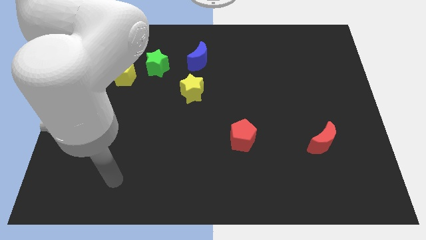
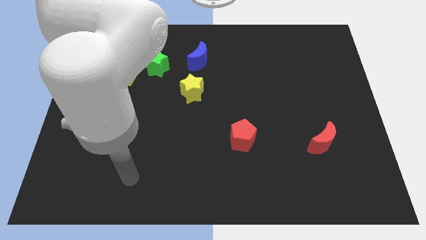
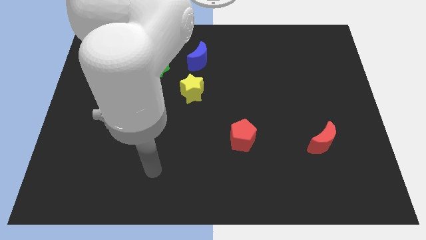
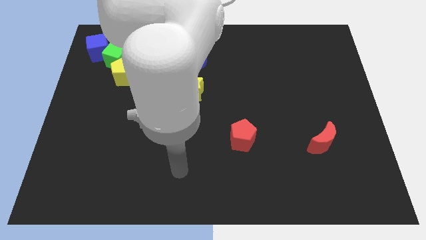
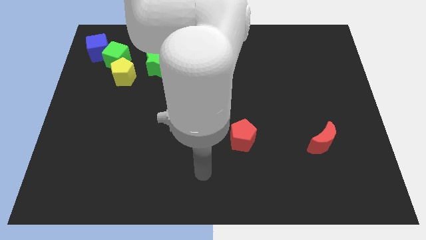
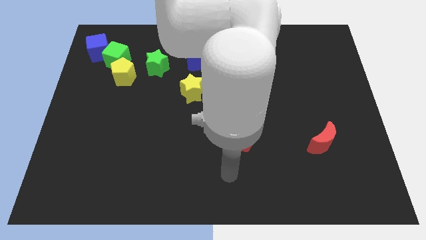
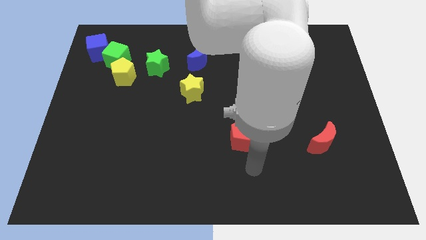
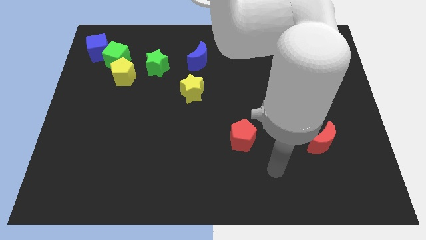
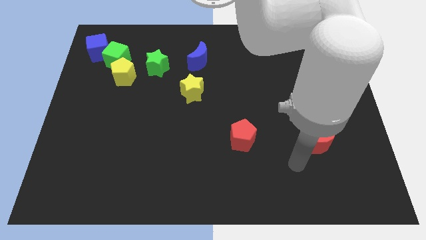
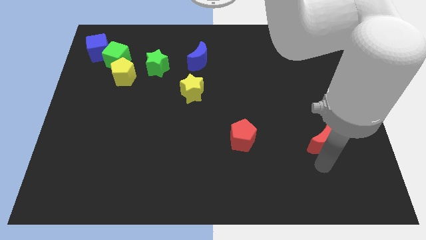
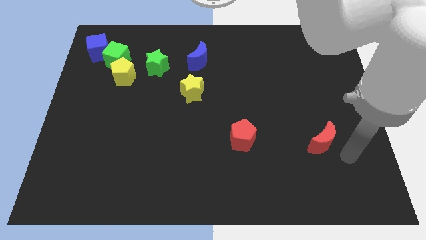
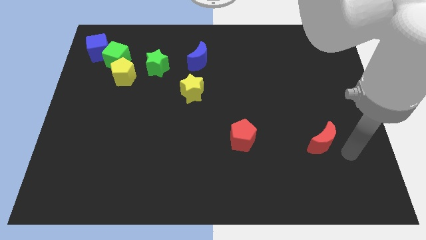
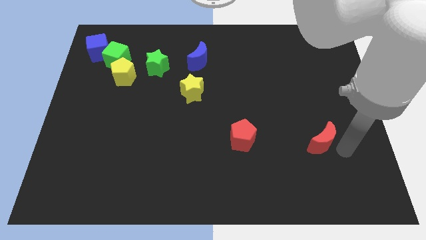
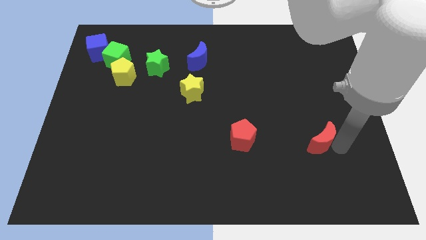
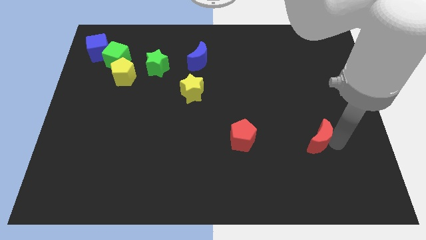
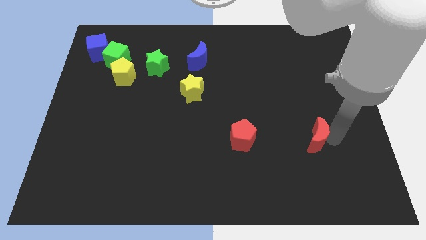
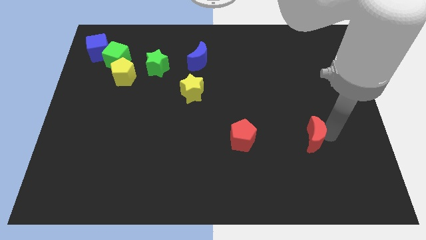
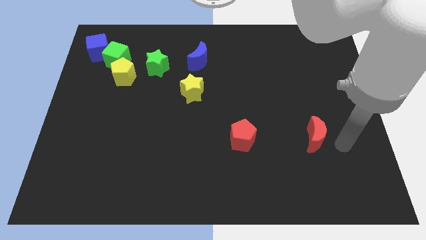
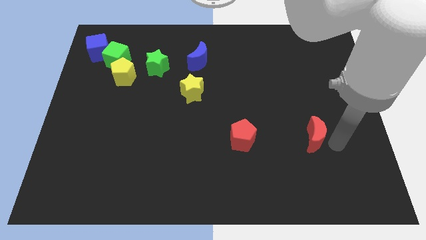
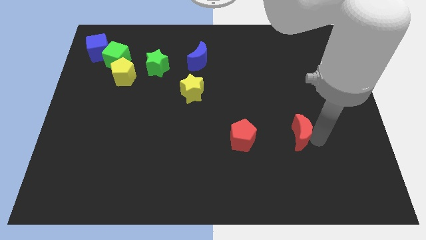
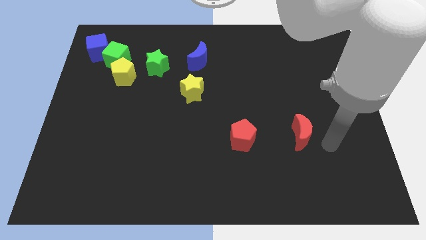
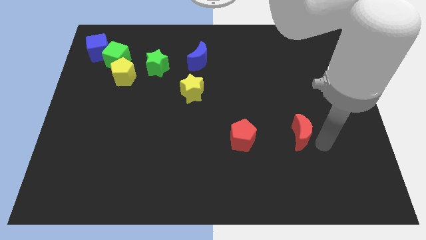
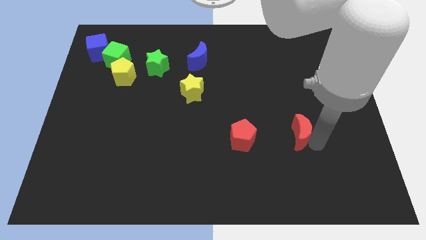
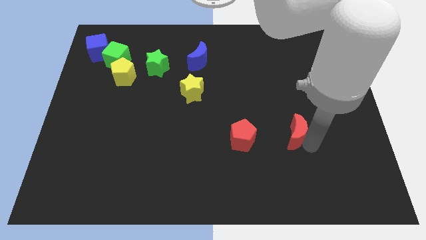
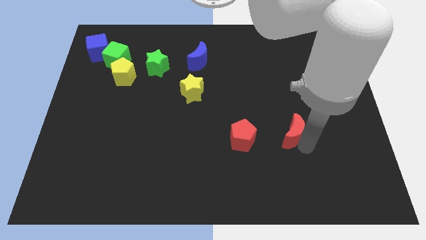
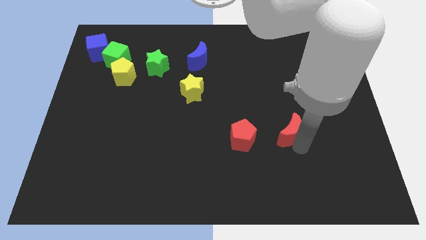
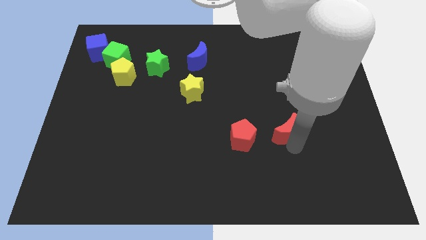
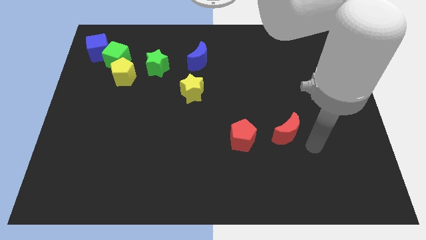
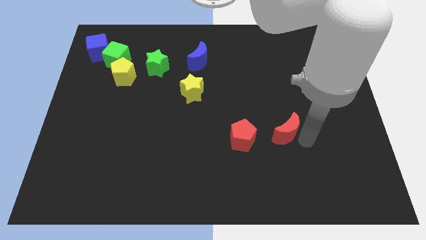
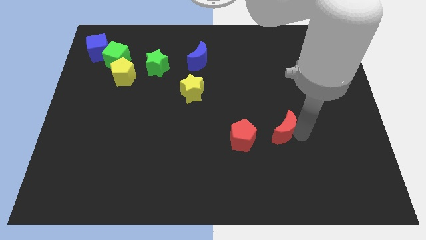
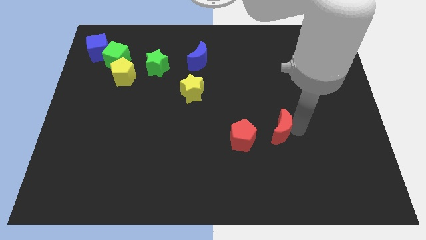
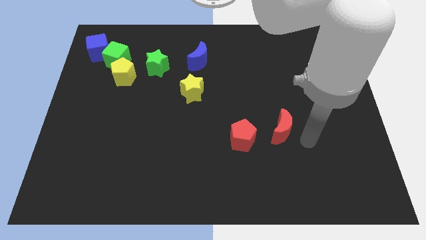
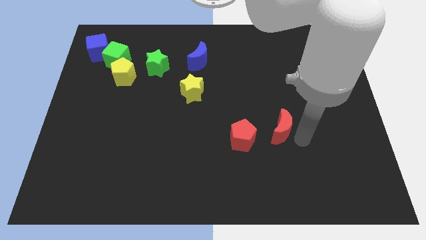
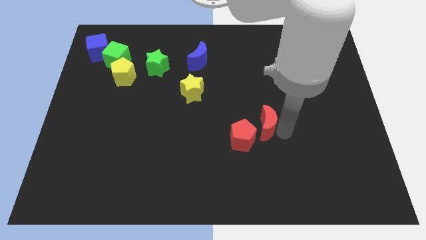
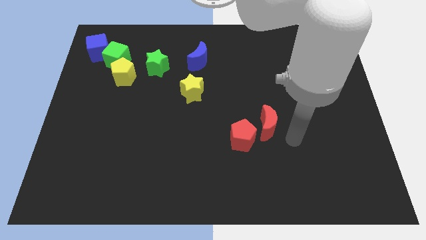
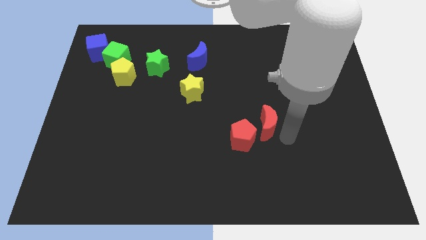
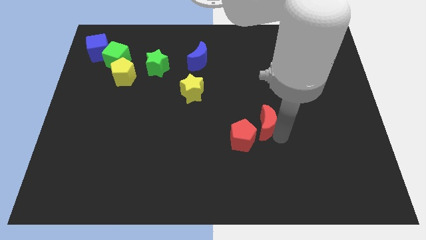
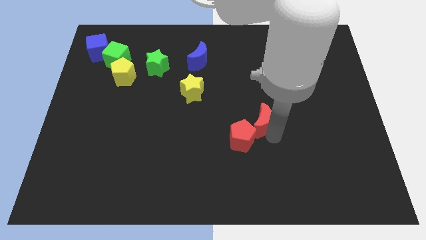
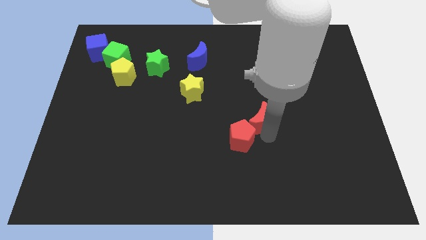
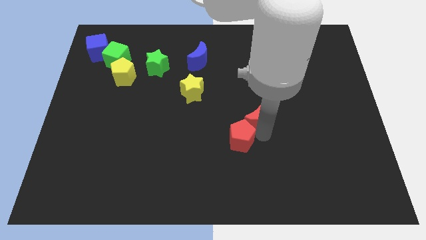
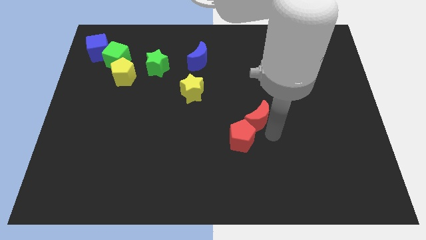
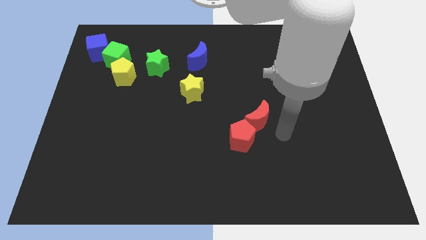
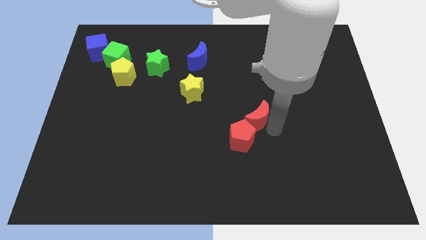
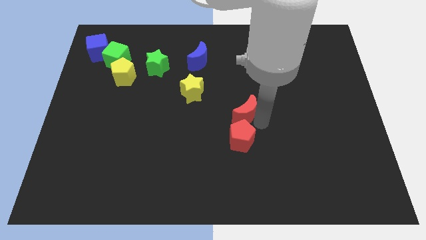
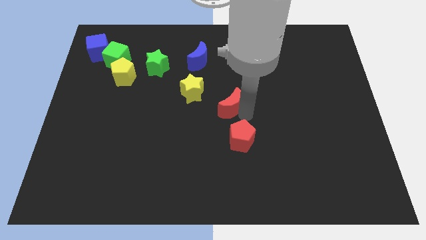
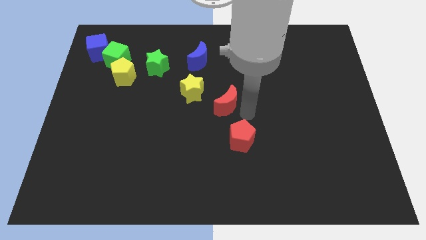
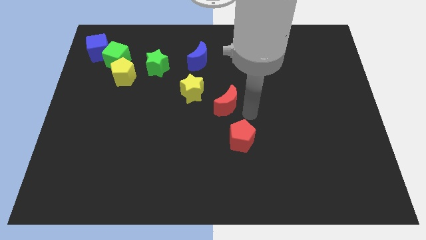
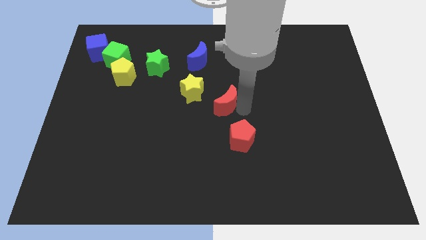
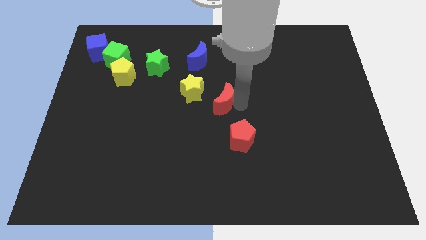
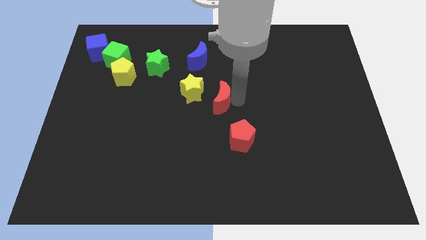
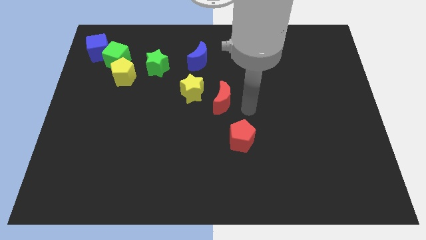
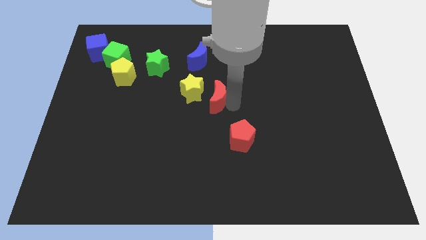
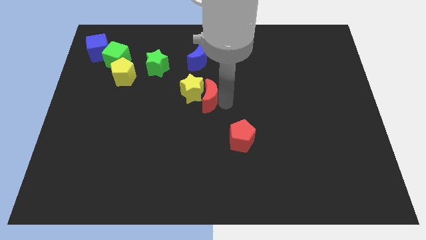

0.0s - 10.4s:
move the red moon close to the yellow star

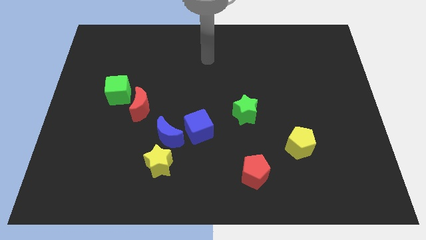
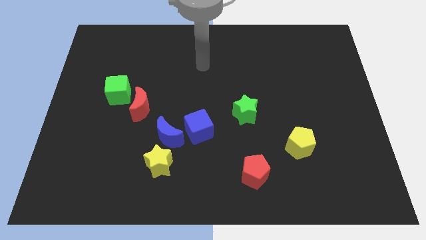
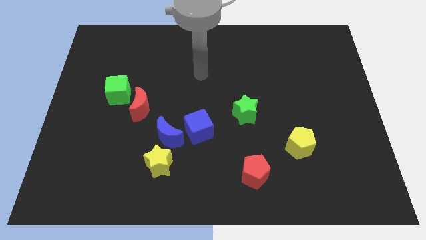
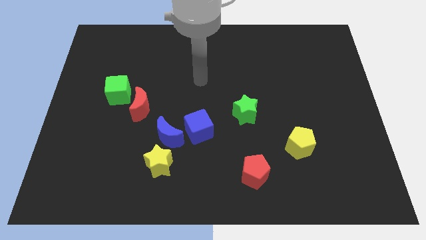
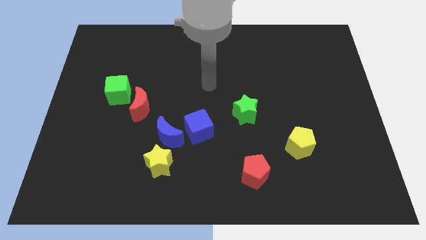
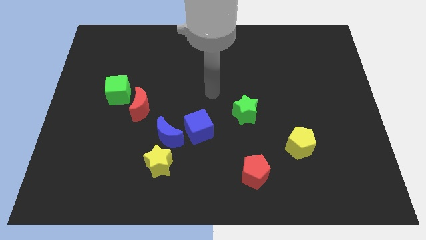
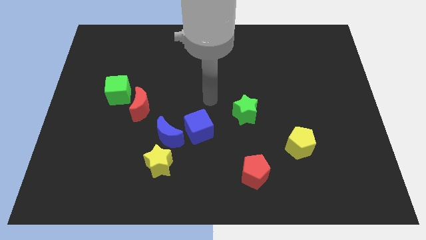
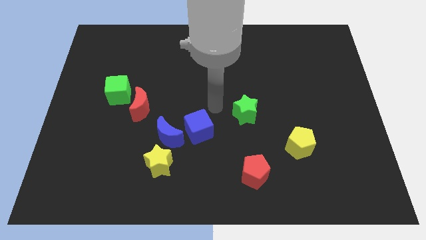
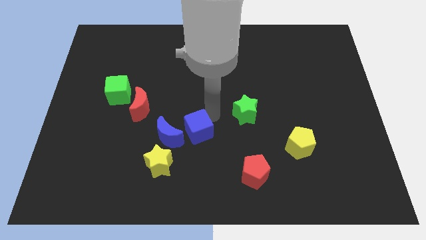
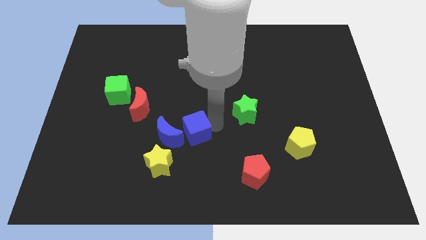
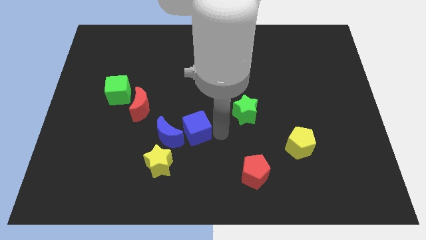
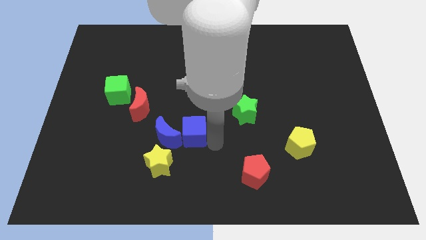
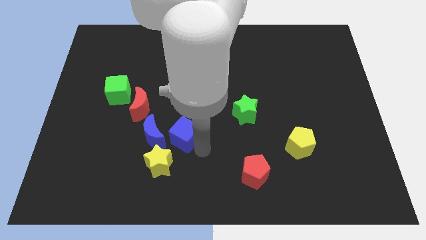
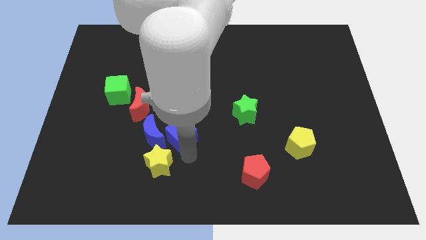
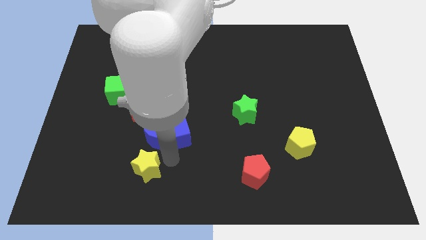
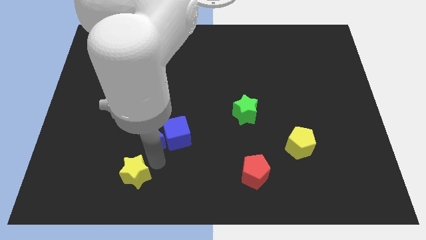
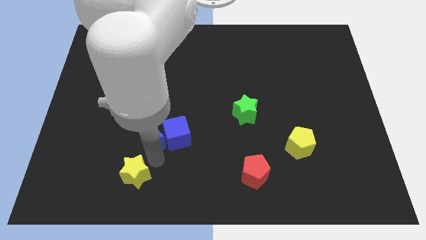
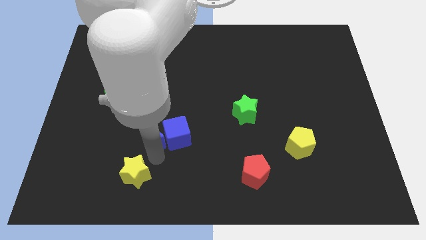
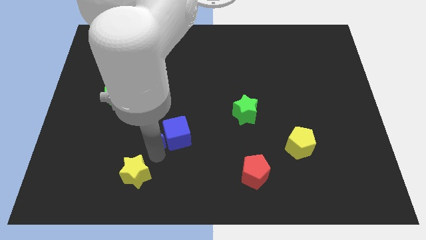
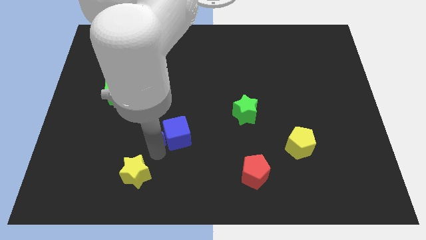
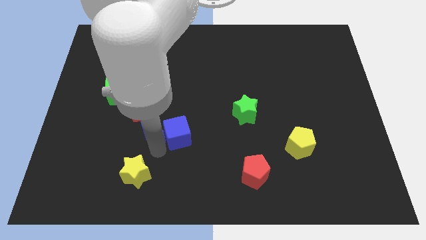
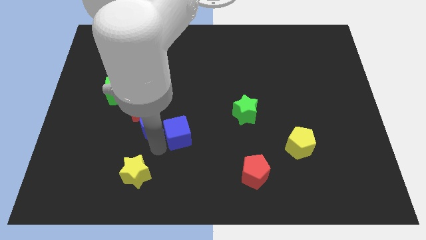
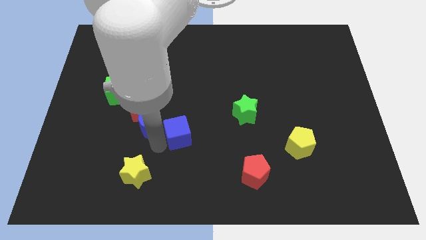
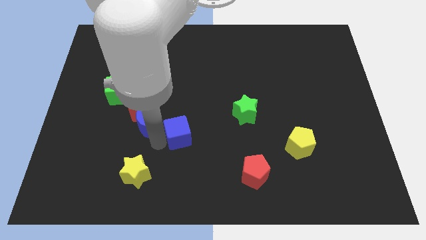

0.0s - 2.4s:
move the blue moon to the red moon
